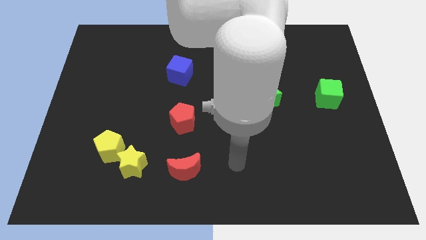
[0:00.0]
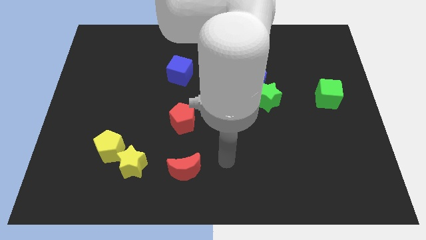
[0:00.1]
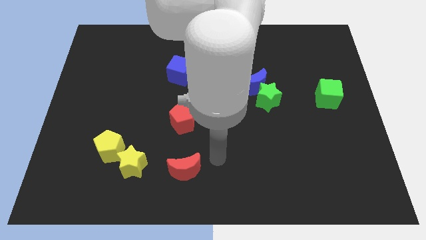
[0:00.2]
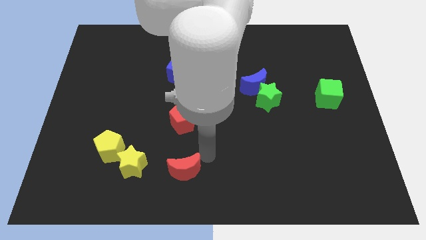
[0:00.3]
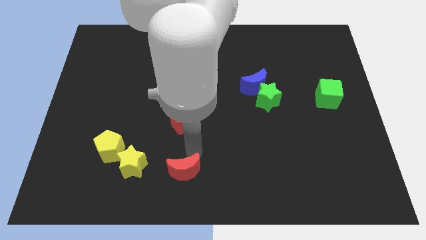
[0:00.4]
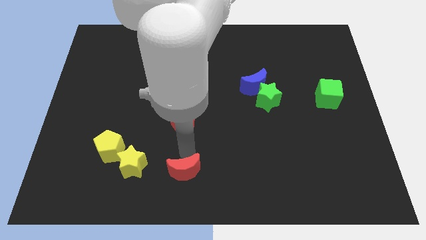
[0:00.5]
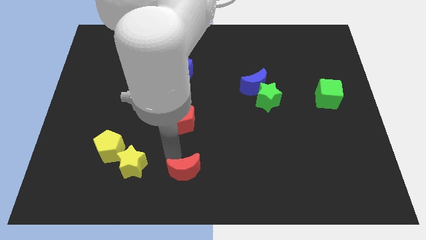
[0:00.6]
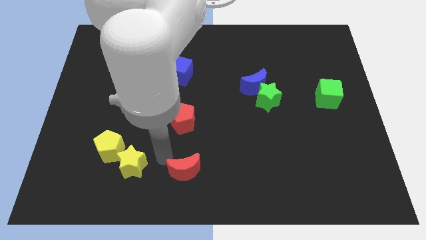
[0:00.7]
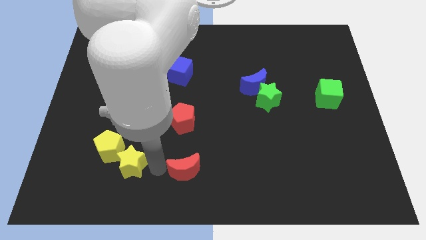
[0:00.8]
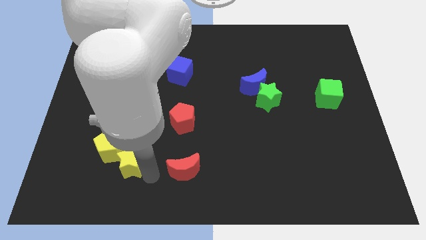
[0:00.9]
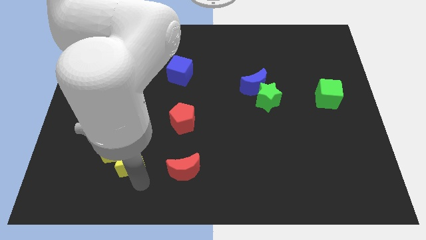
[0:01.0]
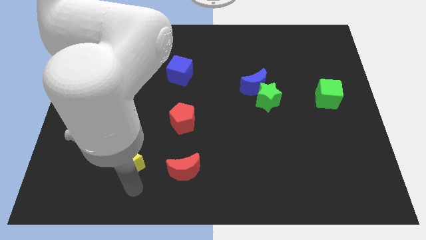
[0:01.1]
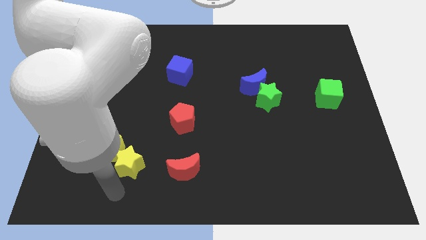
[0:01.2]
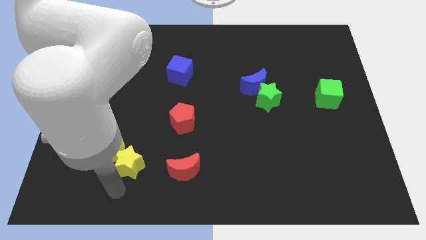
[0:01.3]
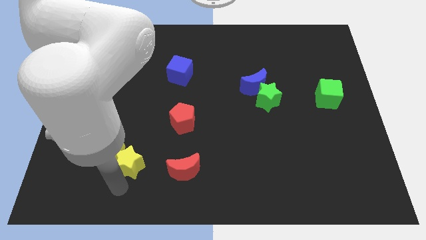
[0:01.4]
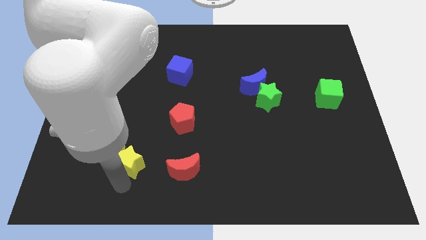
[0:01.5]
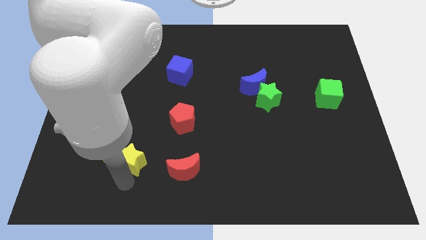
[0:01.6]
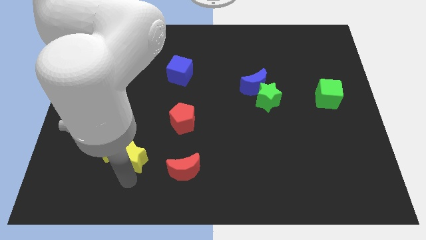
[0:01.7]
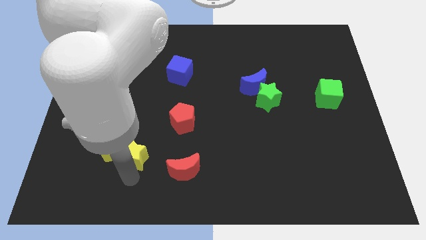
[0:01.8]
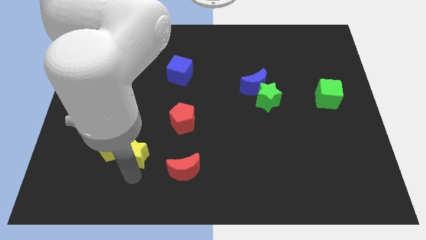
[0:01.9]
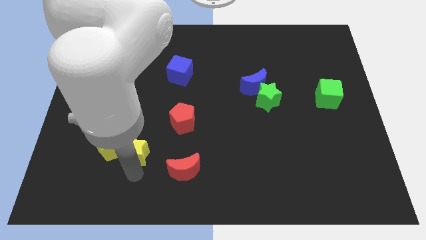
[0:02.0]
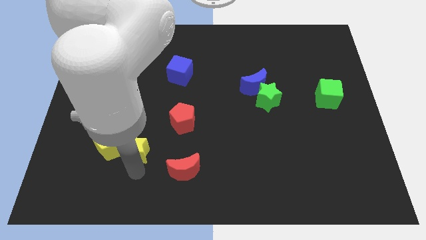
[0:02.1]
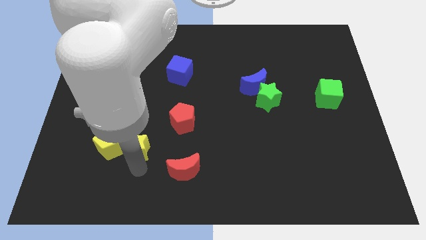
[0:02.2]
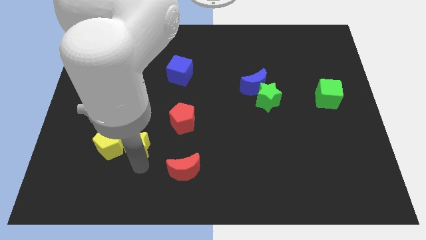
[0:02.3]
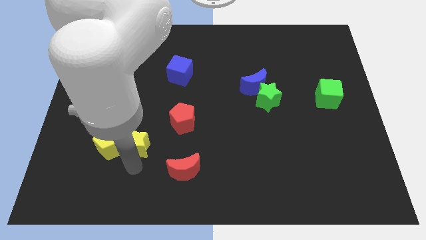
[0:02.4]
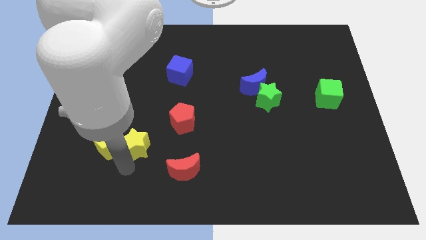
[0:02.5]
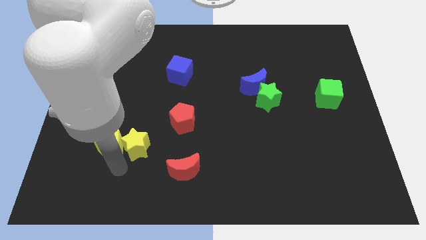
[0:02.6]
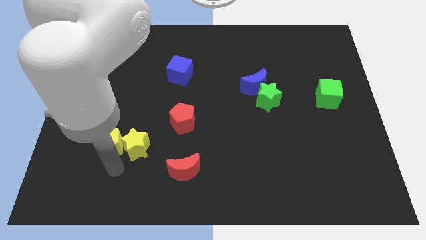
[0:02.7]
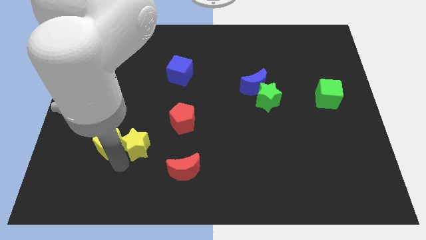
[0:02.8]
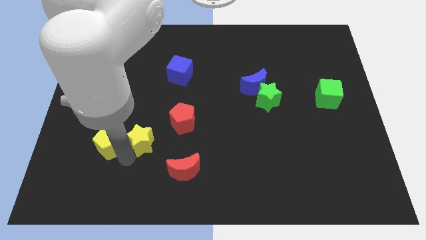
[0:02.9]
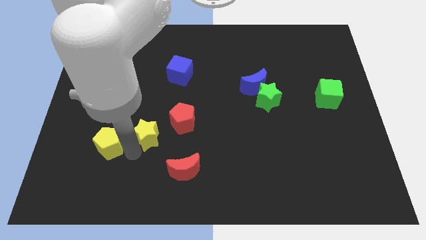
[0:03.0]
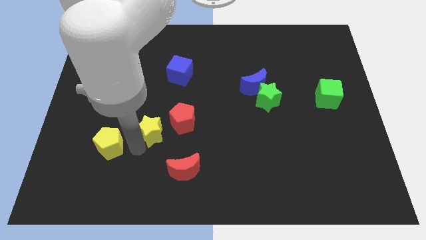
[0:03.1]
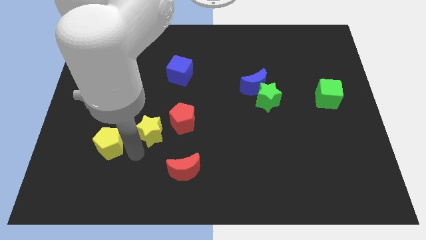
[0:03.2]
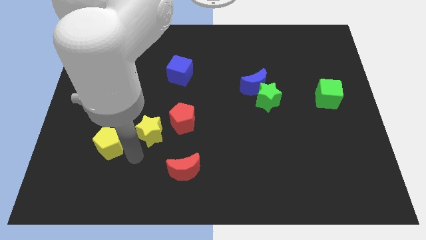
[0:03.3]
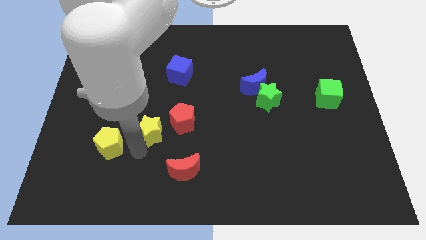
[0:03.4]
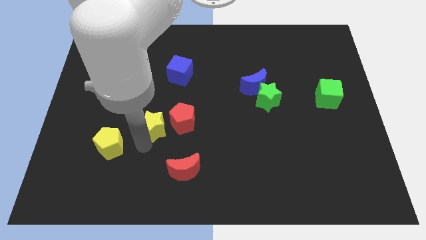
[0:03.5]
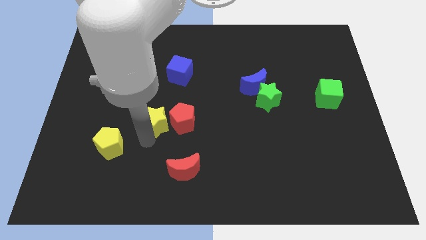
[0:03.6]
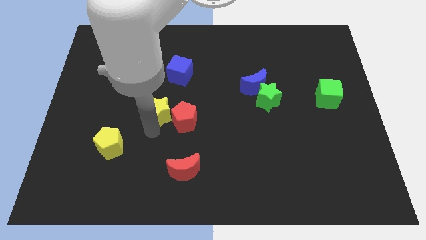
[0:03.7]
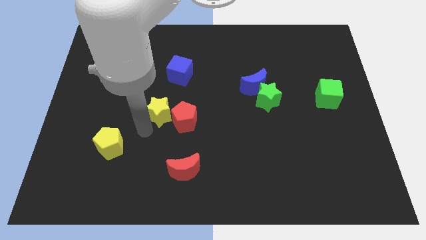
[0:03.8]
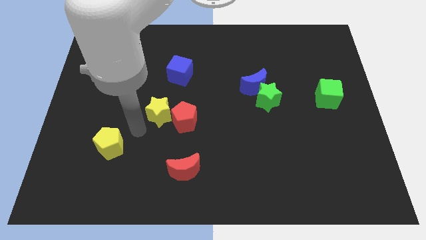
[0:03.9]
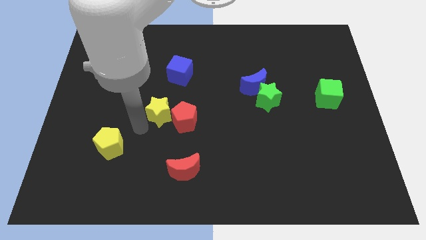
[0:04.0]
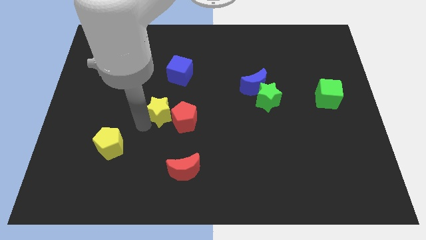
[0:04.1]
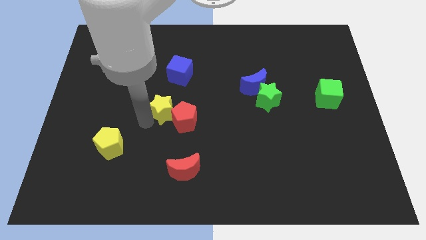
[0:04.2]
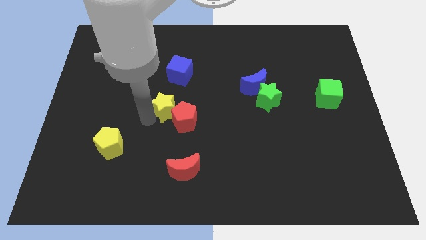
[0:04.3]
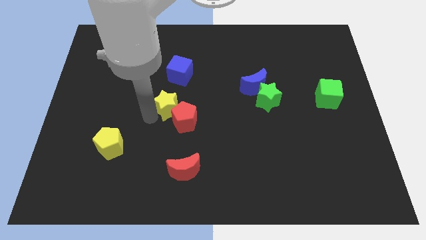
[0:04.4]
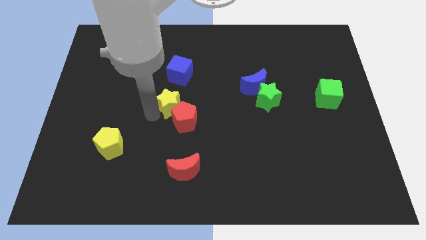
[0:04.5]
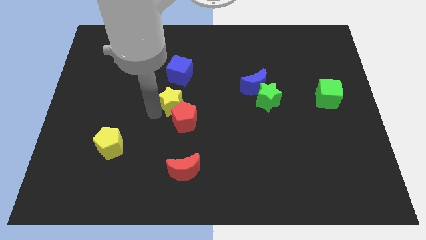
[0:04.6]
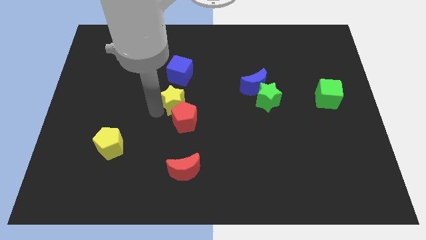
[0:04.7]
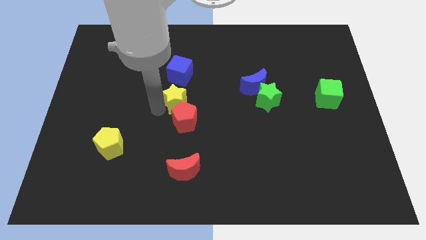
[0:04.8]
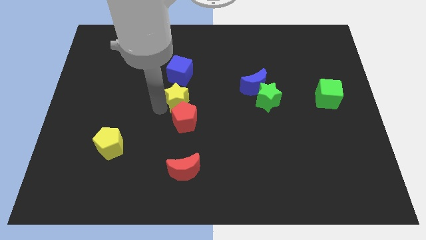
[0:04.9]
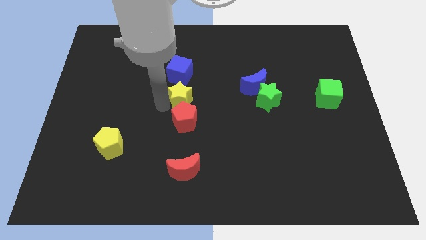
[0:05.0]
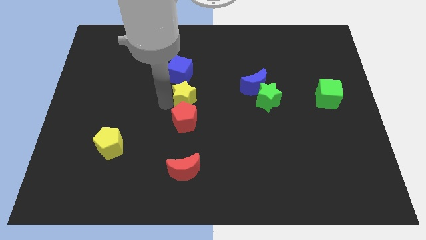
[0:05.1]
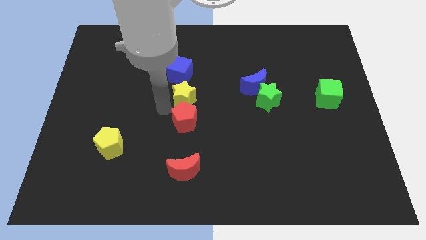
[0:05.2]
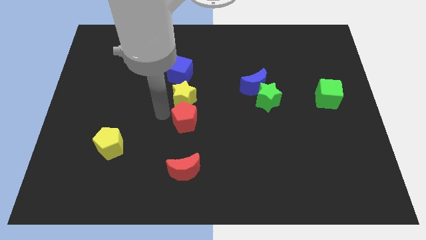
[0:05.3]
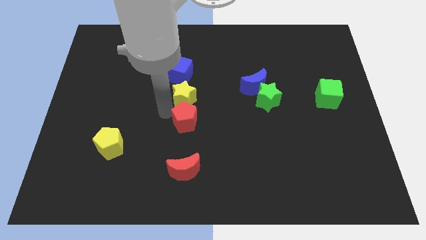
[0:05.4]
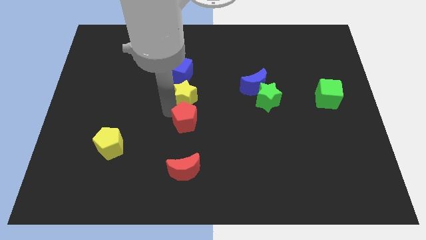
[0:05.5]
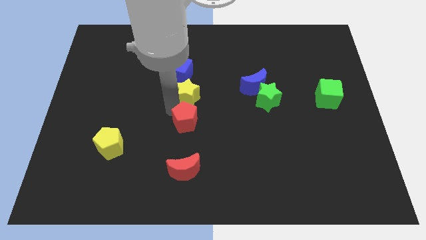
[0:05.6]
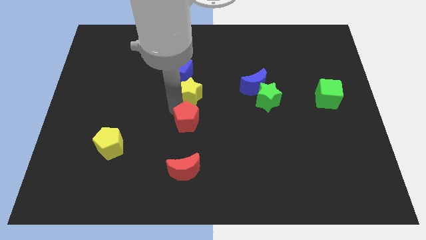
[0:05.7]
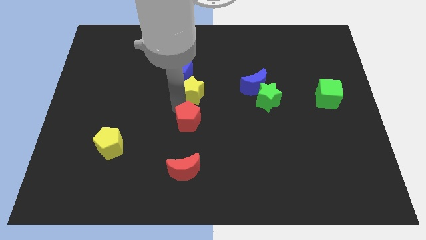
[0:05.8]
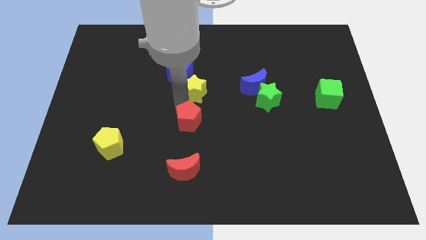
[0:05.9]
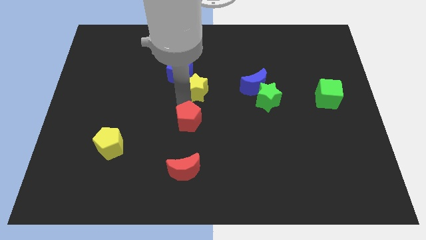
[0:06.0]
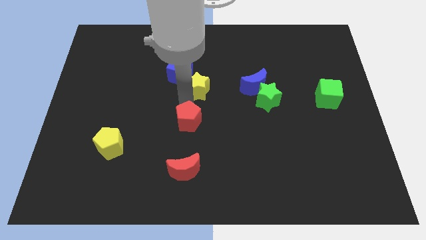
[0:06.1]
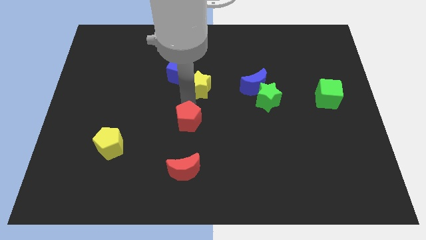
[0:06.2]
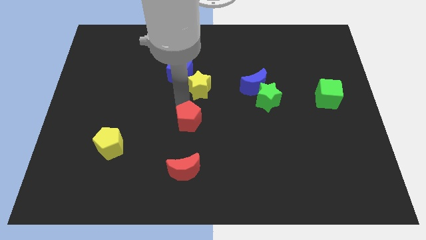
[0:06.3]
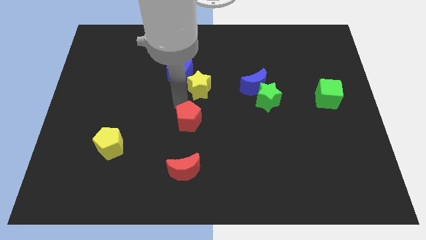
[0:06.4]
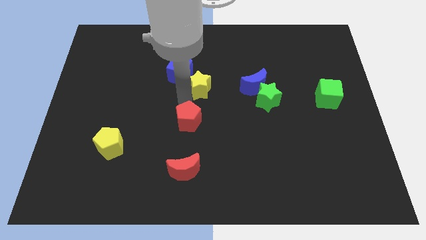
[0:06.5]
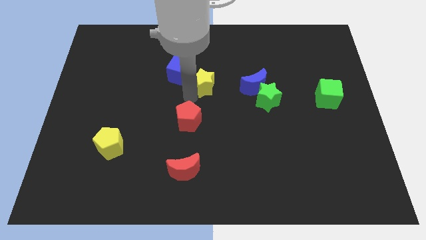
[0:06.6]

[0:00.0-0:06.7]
push the yellow star just right of the blue cube

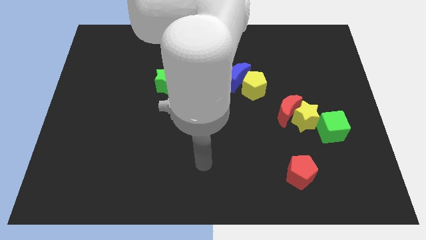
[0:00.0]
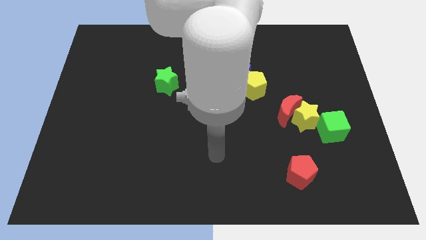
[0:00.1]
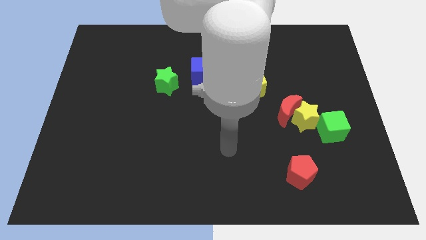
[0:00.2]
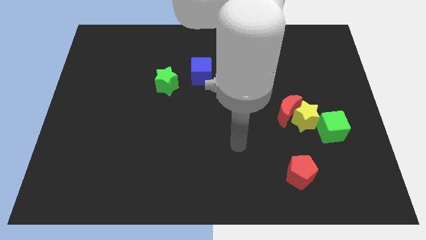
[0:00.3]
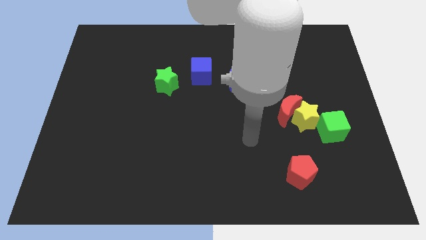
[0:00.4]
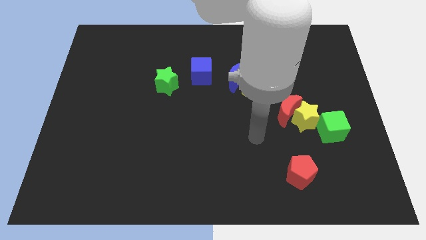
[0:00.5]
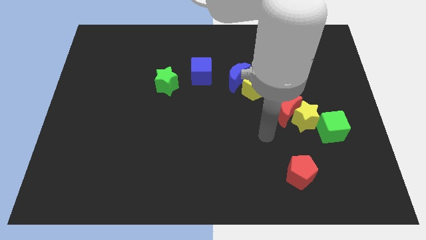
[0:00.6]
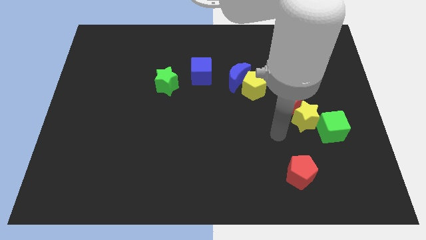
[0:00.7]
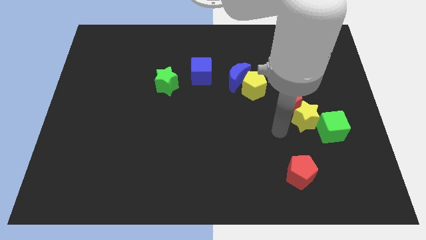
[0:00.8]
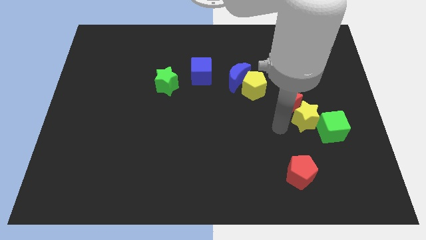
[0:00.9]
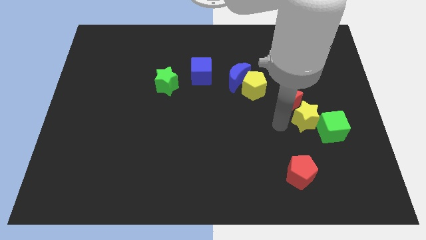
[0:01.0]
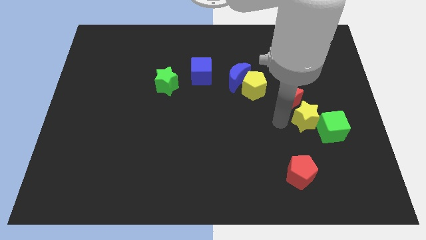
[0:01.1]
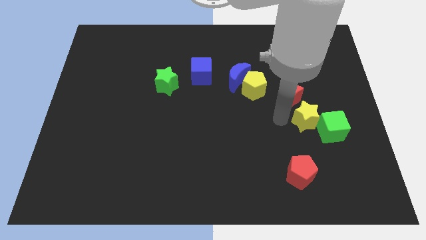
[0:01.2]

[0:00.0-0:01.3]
move the red moon just right of the yellow pentagon
